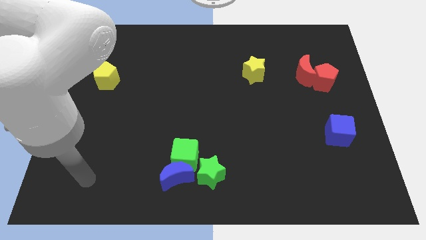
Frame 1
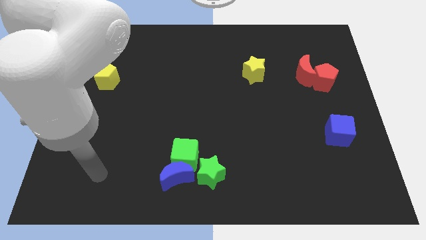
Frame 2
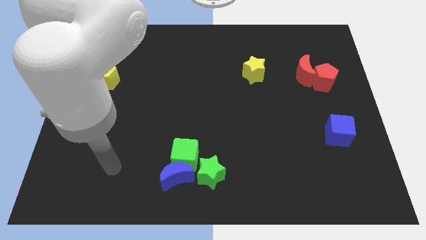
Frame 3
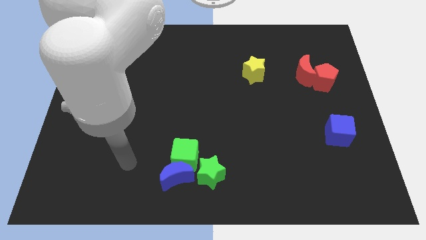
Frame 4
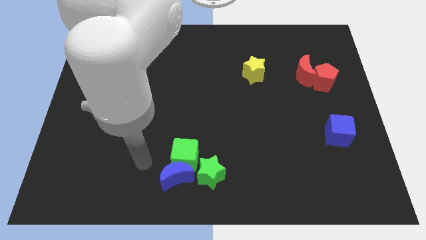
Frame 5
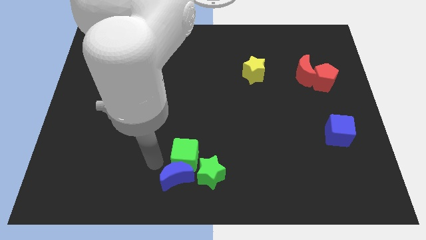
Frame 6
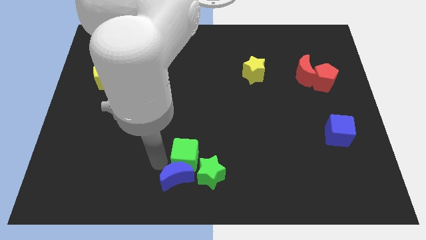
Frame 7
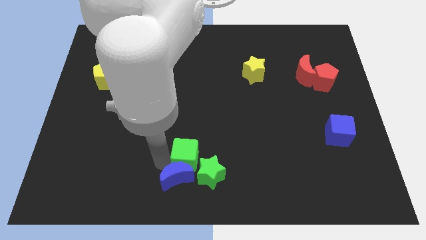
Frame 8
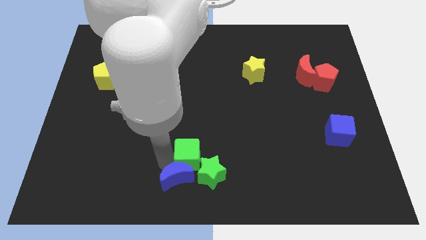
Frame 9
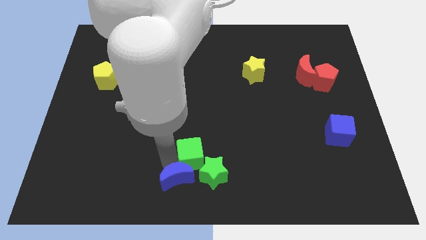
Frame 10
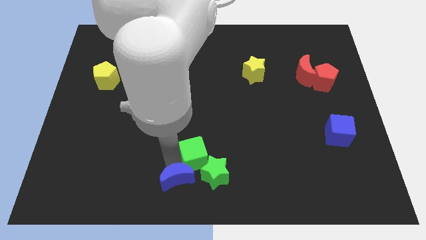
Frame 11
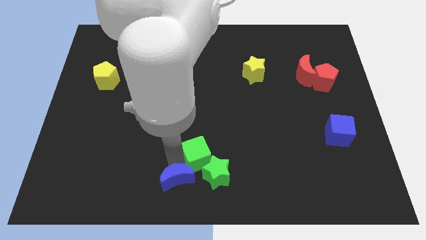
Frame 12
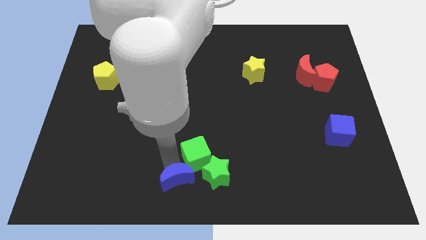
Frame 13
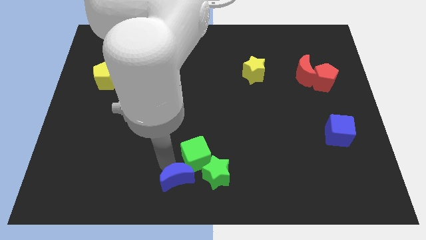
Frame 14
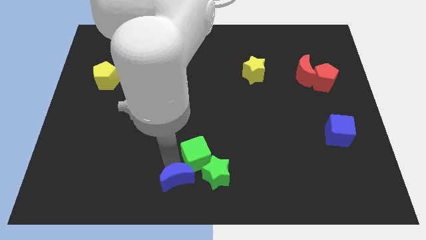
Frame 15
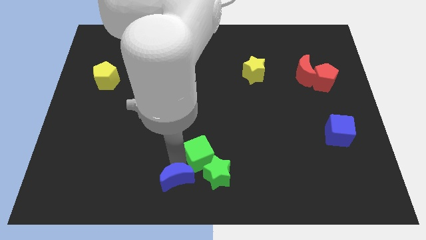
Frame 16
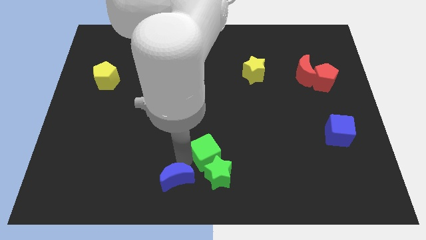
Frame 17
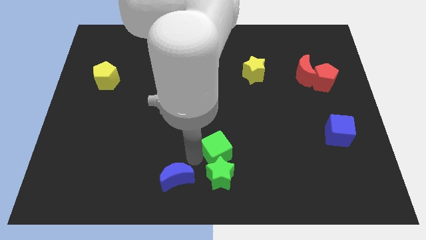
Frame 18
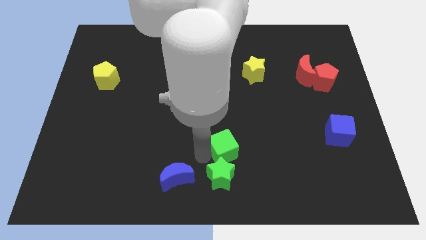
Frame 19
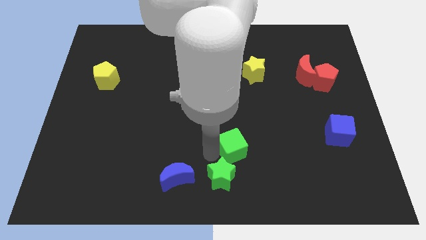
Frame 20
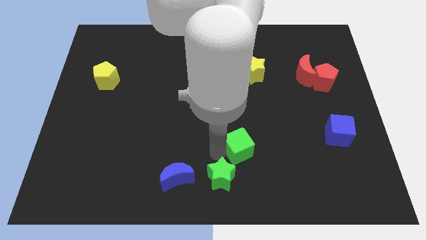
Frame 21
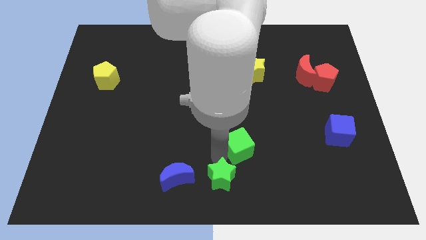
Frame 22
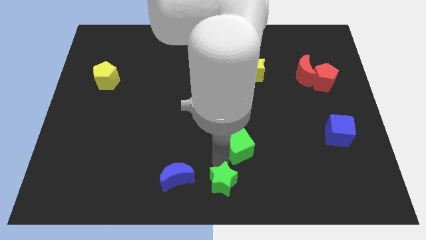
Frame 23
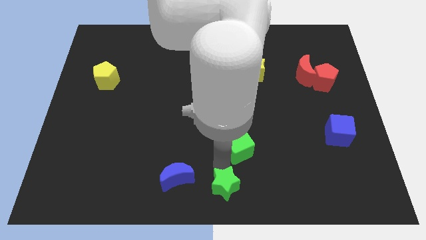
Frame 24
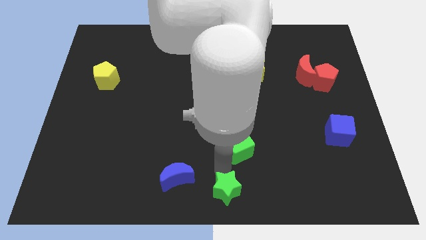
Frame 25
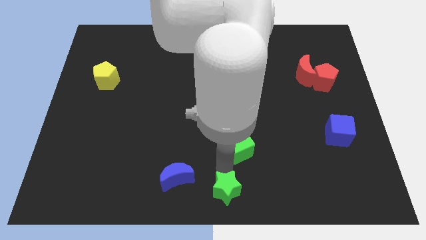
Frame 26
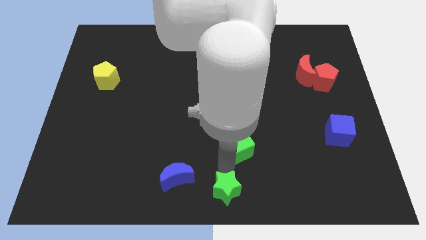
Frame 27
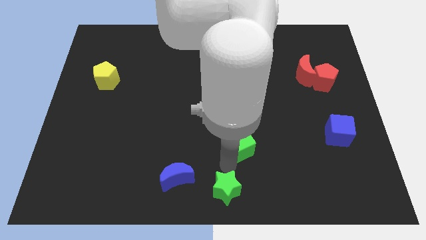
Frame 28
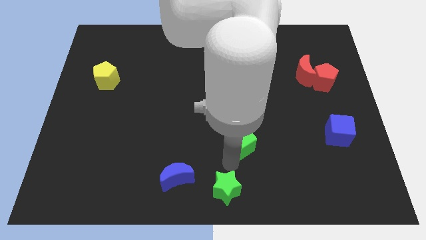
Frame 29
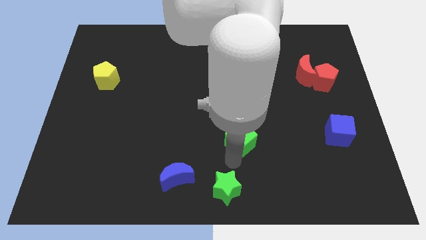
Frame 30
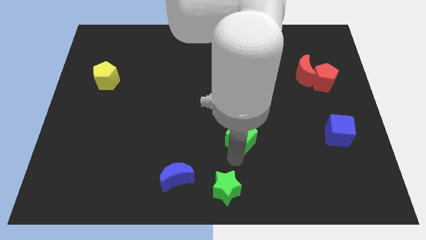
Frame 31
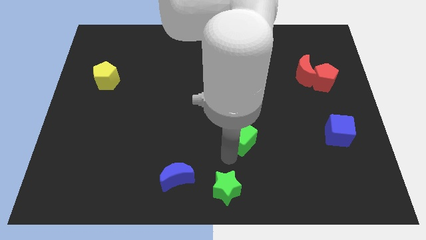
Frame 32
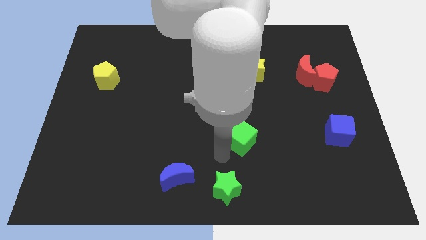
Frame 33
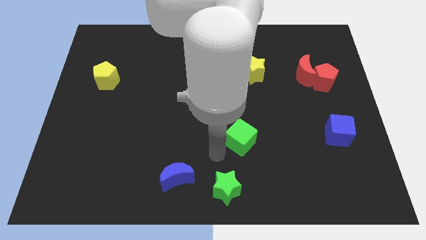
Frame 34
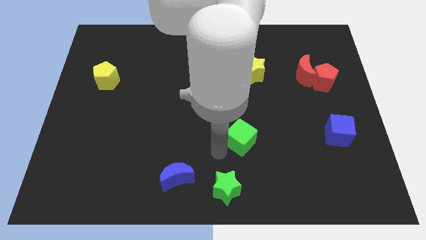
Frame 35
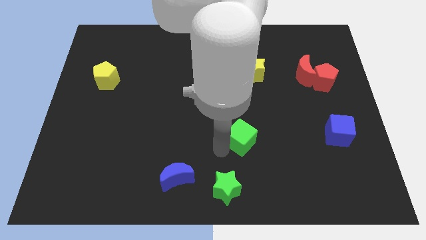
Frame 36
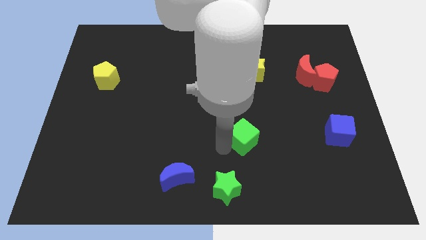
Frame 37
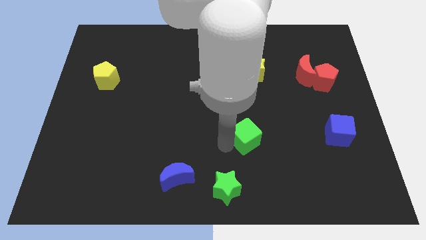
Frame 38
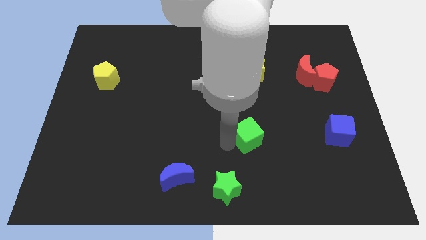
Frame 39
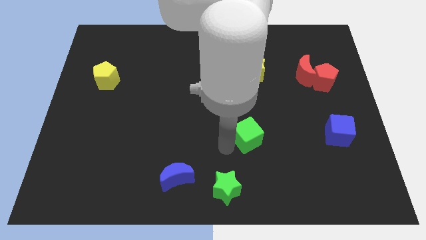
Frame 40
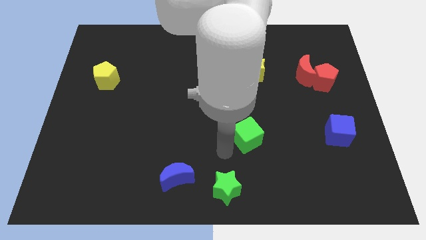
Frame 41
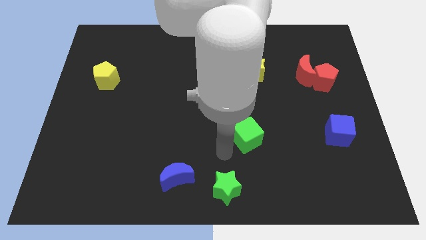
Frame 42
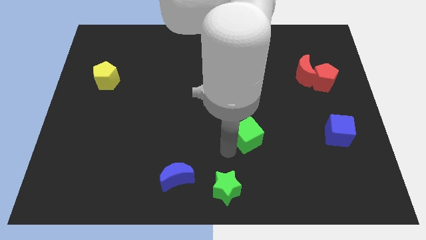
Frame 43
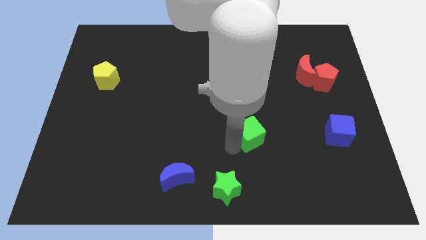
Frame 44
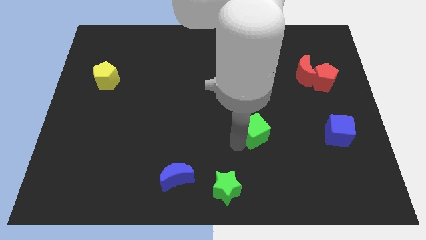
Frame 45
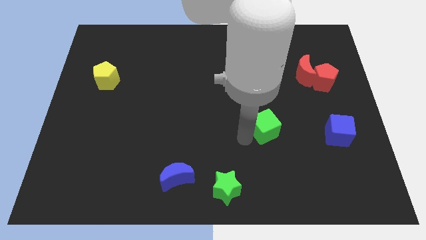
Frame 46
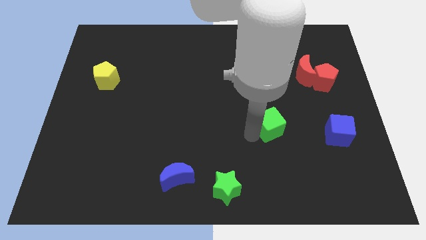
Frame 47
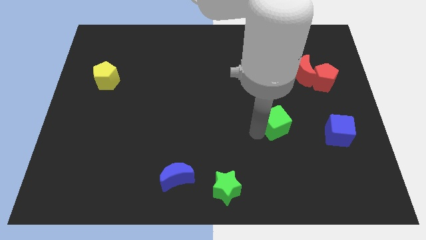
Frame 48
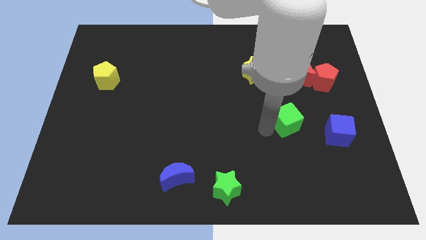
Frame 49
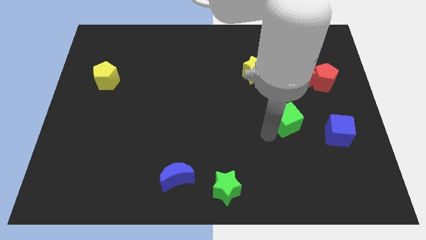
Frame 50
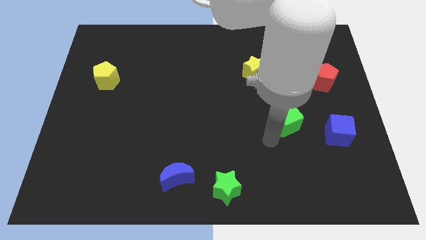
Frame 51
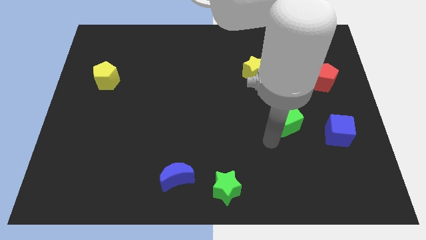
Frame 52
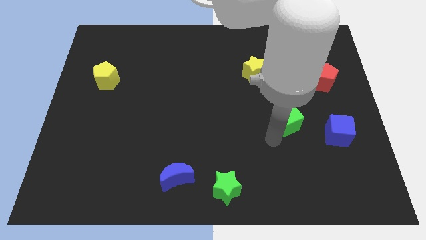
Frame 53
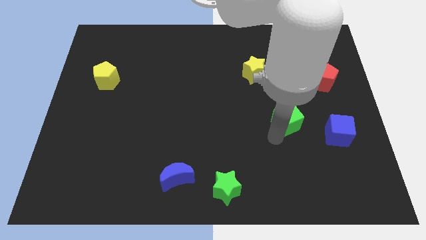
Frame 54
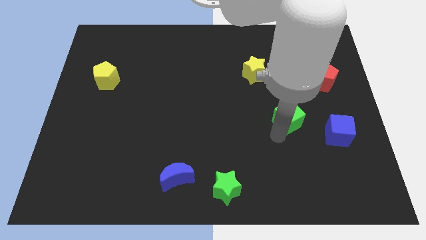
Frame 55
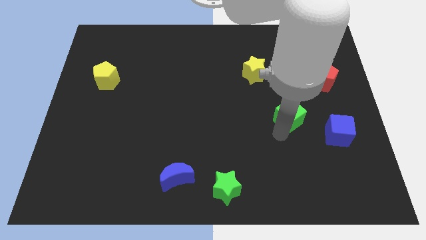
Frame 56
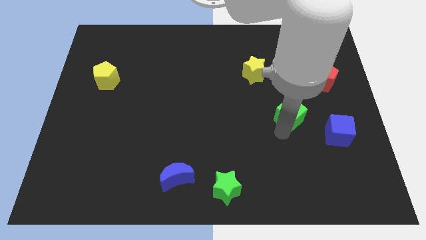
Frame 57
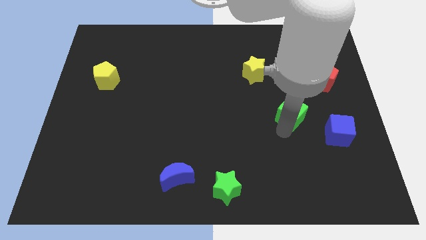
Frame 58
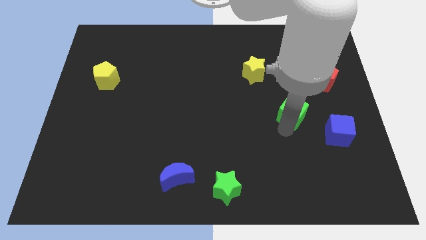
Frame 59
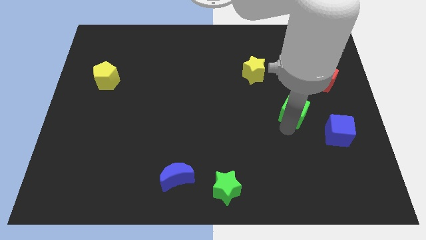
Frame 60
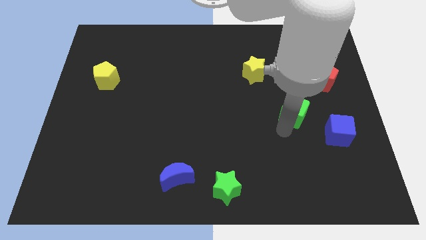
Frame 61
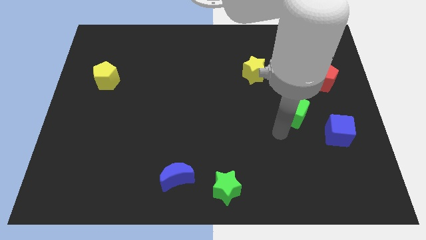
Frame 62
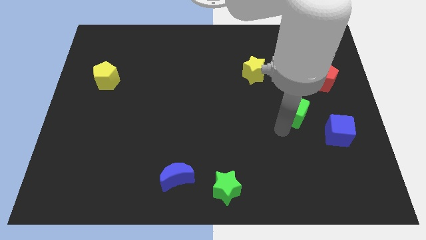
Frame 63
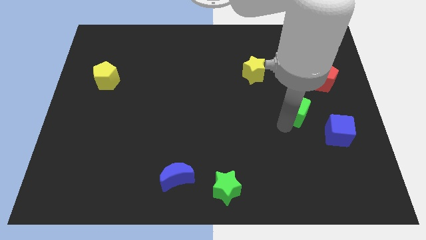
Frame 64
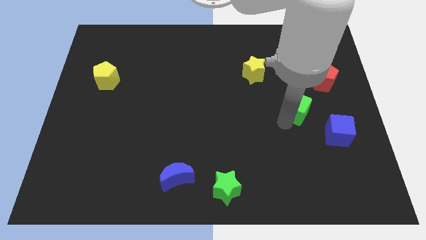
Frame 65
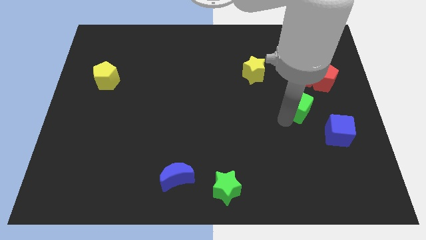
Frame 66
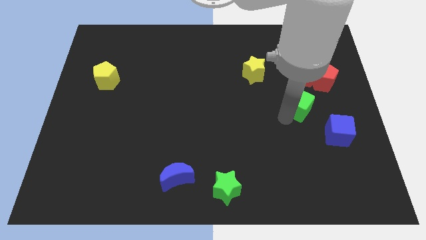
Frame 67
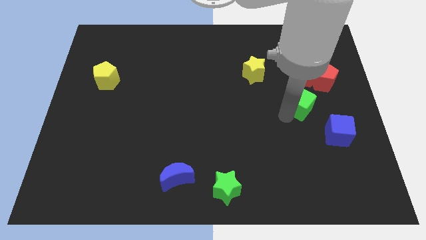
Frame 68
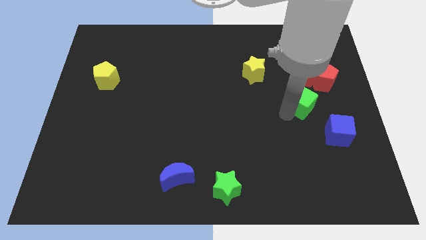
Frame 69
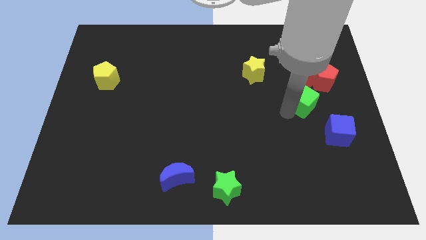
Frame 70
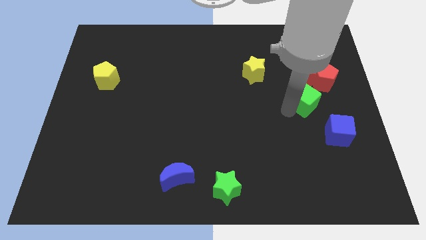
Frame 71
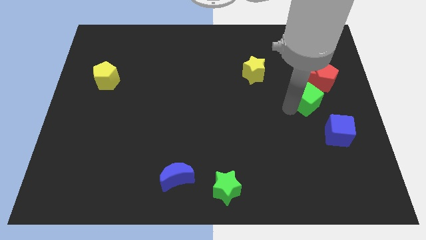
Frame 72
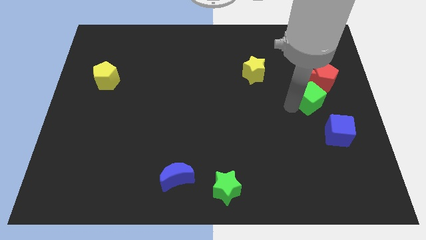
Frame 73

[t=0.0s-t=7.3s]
move the green cube above the blue cube

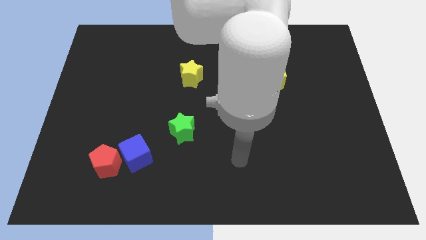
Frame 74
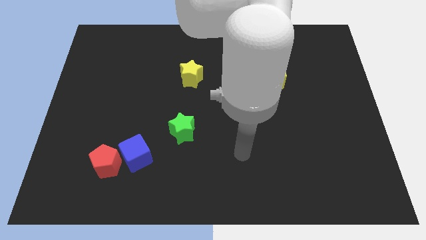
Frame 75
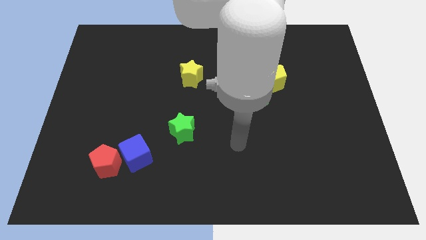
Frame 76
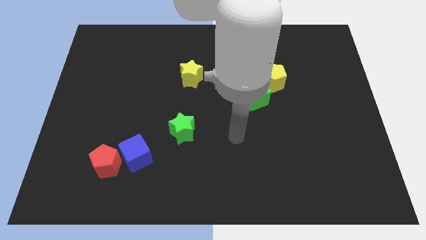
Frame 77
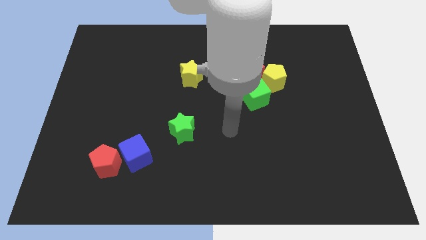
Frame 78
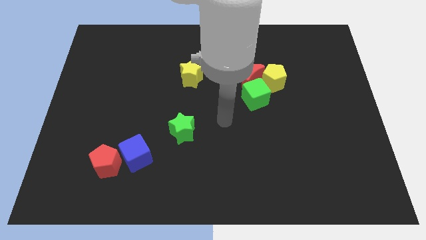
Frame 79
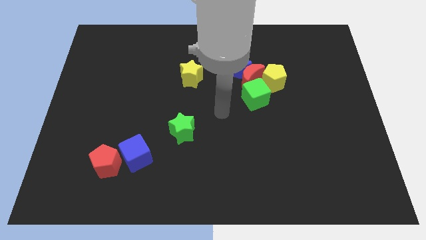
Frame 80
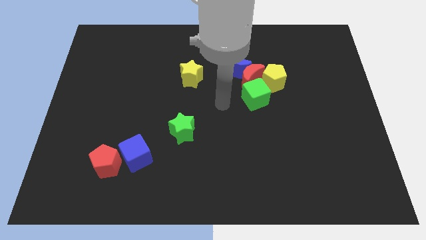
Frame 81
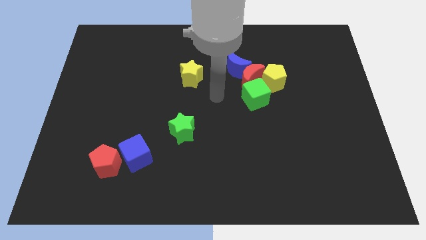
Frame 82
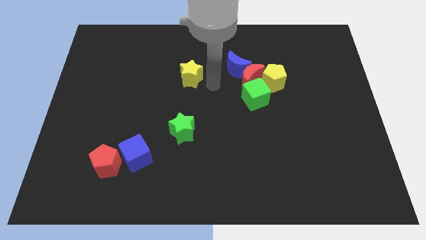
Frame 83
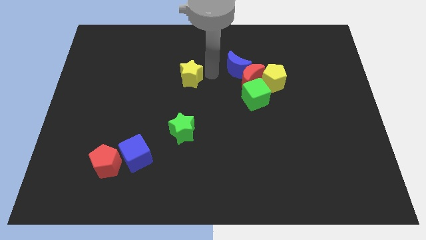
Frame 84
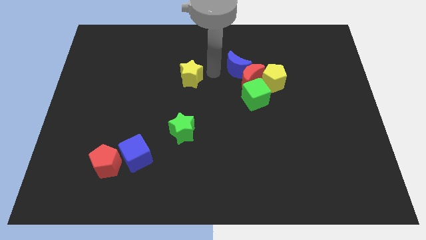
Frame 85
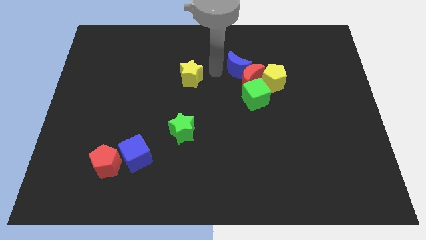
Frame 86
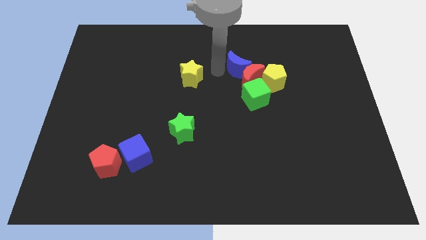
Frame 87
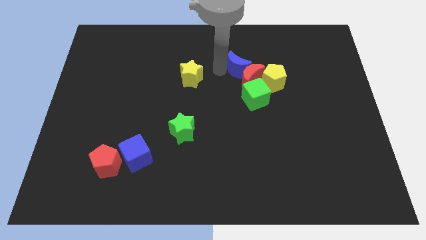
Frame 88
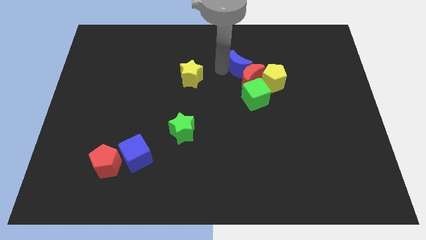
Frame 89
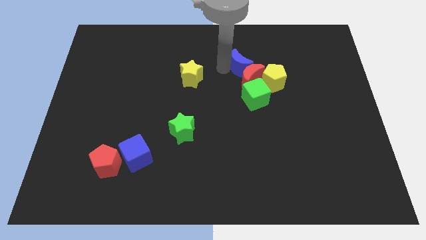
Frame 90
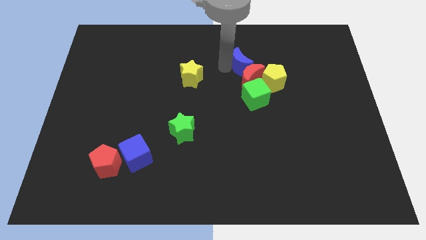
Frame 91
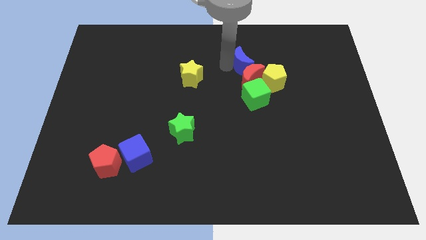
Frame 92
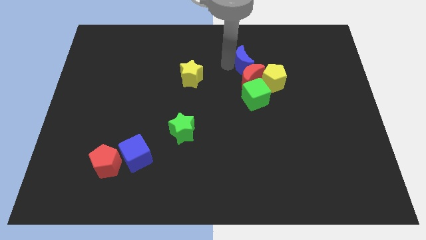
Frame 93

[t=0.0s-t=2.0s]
move the blue moon to the top right of the red moon
